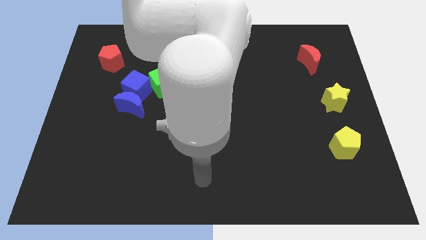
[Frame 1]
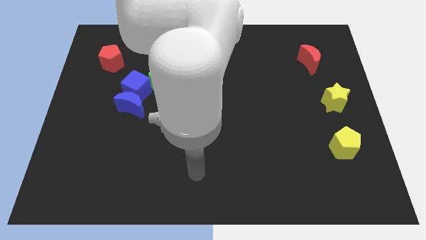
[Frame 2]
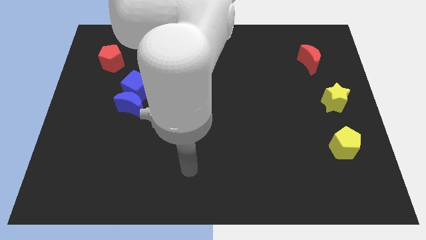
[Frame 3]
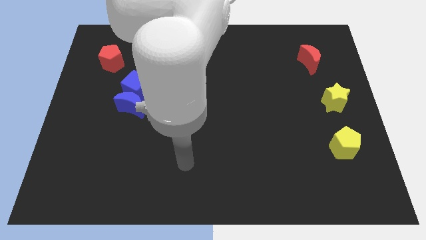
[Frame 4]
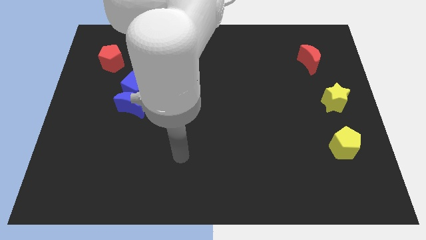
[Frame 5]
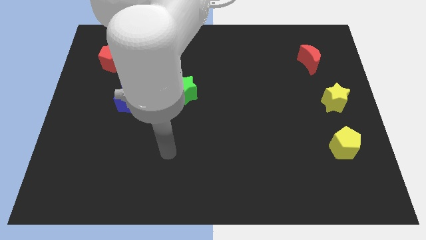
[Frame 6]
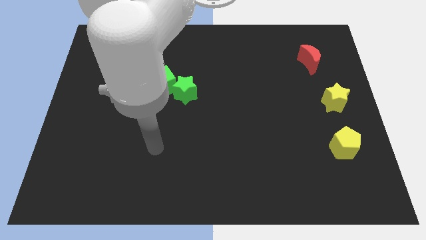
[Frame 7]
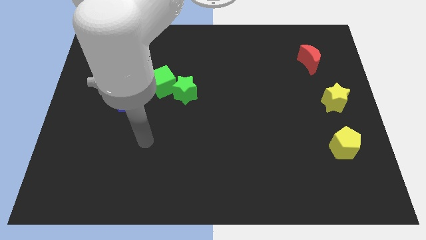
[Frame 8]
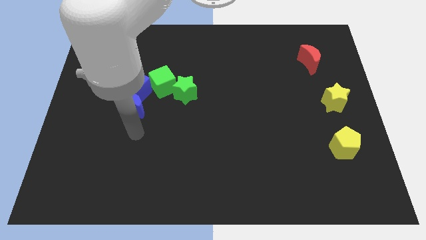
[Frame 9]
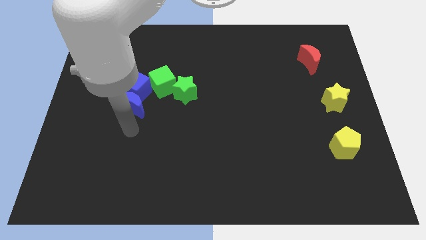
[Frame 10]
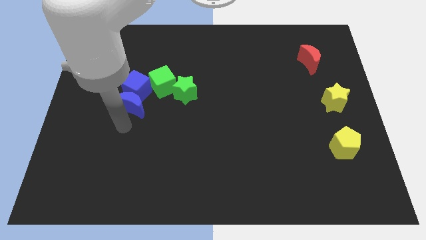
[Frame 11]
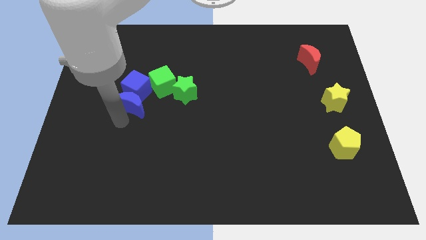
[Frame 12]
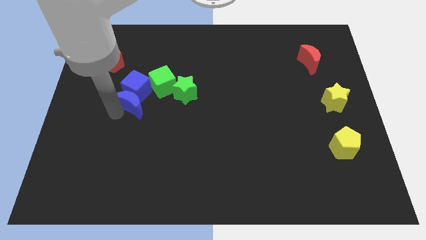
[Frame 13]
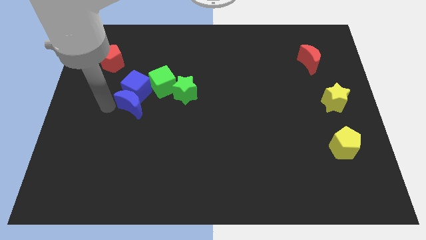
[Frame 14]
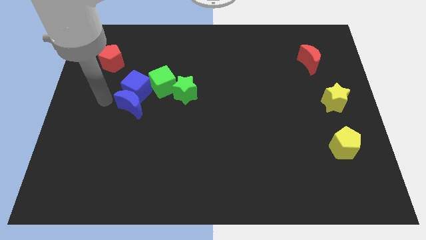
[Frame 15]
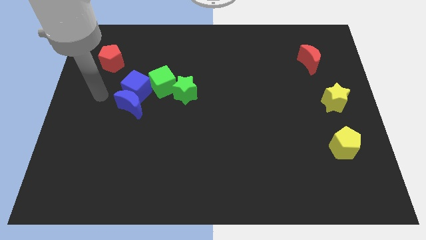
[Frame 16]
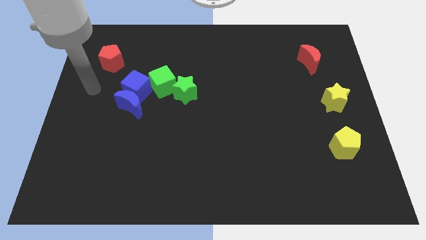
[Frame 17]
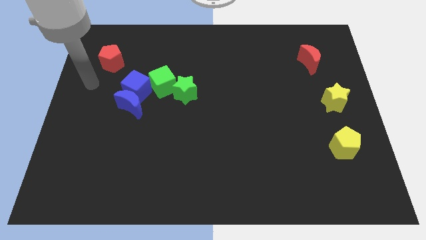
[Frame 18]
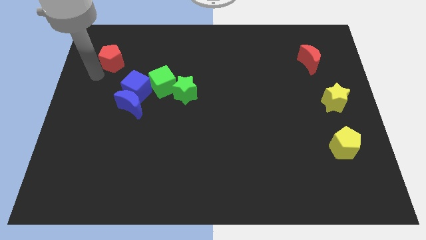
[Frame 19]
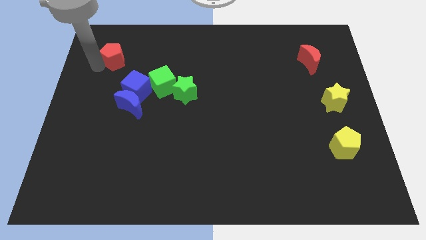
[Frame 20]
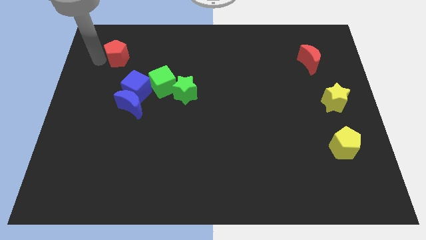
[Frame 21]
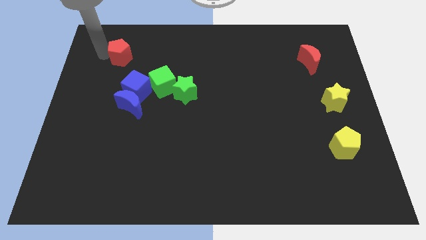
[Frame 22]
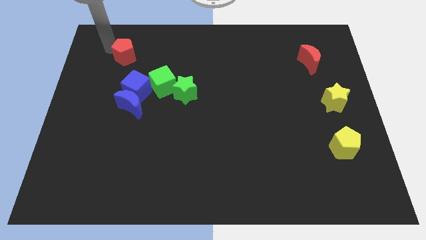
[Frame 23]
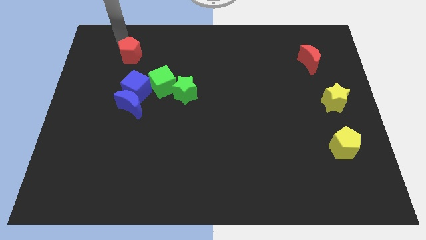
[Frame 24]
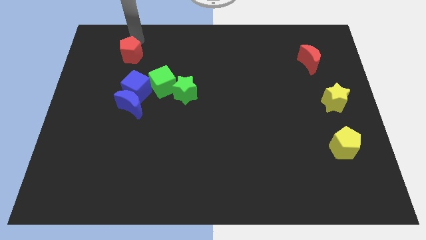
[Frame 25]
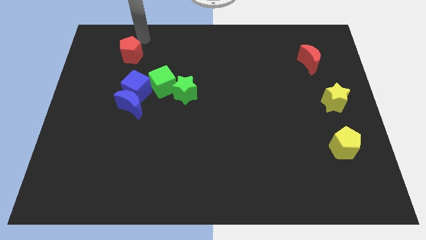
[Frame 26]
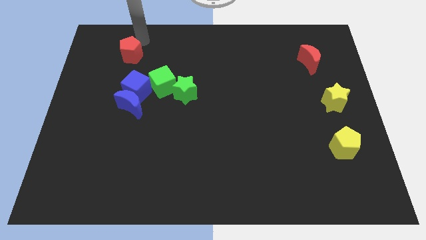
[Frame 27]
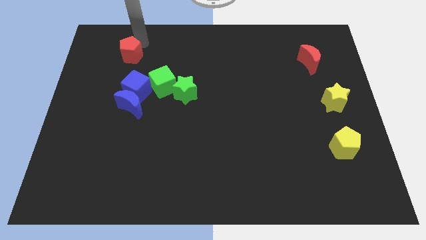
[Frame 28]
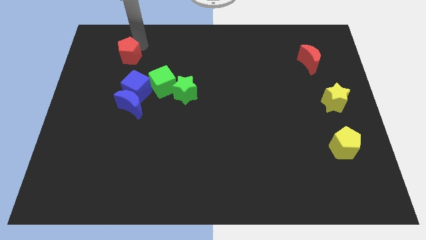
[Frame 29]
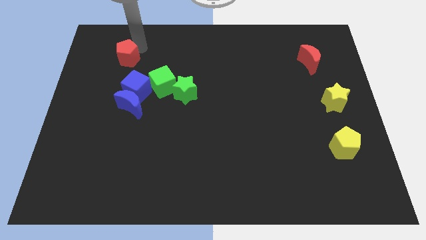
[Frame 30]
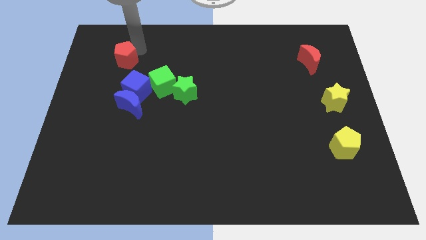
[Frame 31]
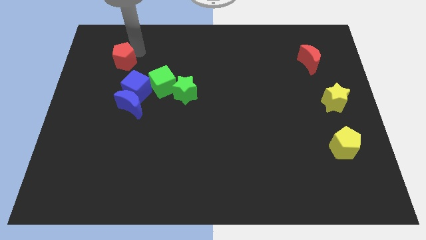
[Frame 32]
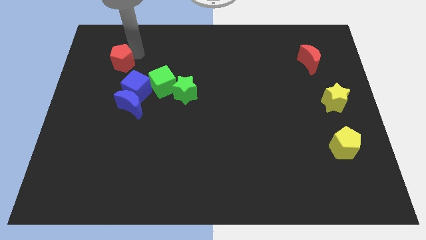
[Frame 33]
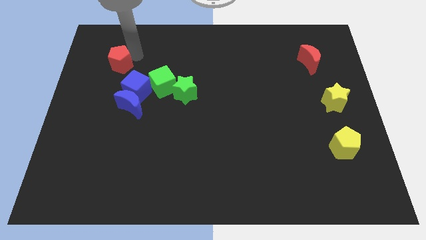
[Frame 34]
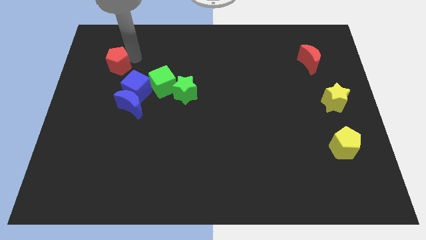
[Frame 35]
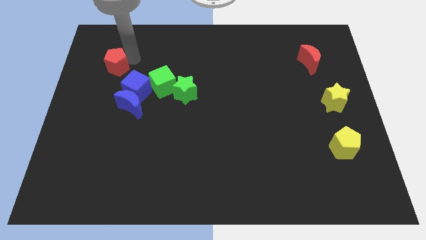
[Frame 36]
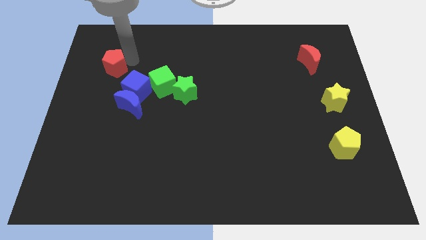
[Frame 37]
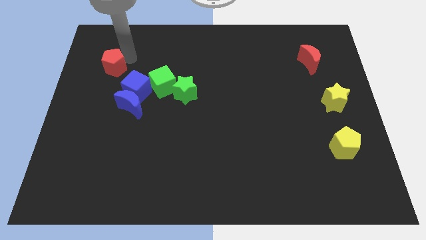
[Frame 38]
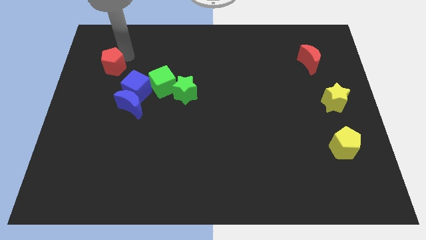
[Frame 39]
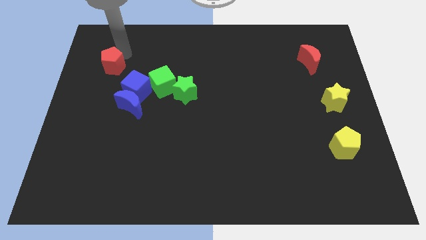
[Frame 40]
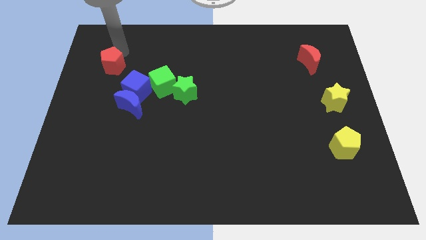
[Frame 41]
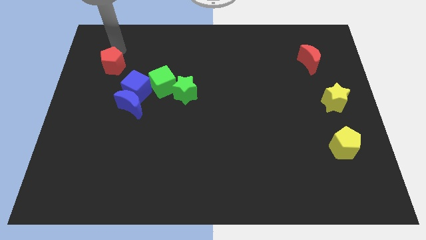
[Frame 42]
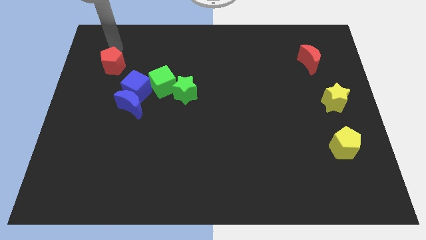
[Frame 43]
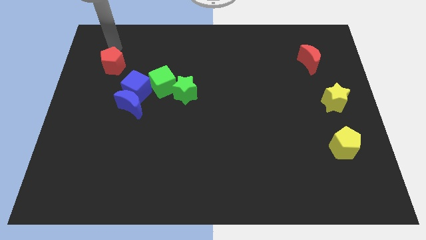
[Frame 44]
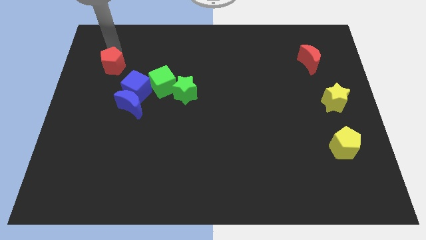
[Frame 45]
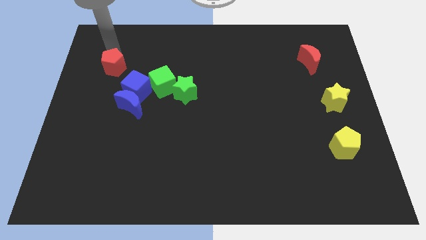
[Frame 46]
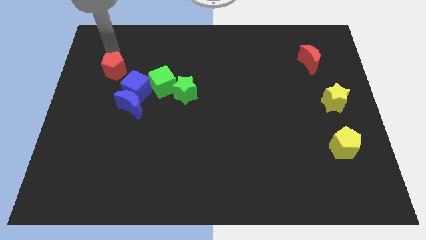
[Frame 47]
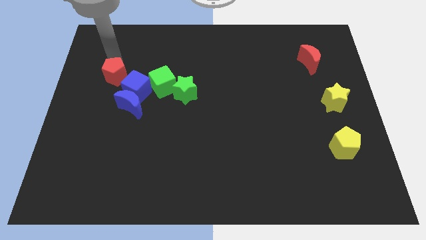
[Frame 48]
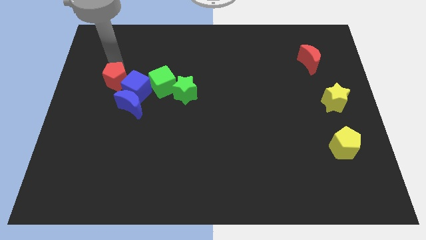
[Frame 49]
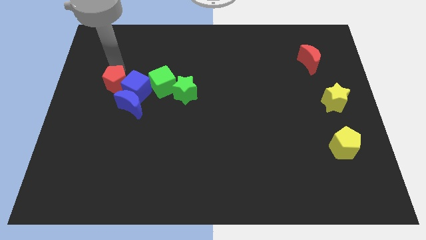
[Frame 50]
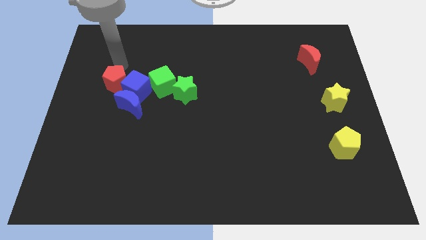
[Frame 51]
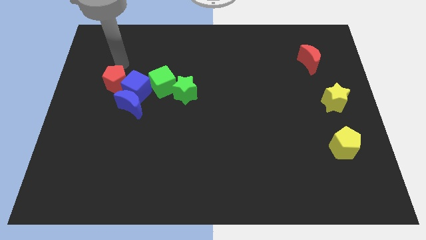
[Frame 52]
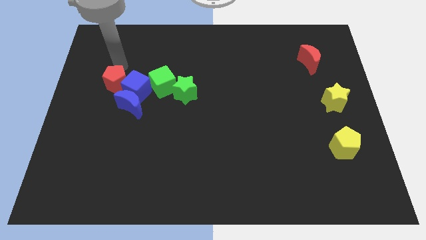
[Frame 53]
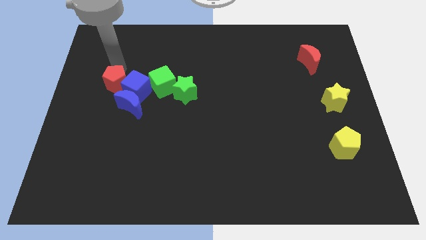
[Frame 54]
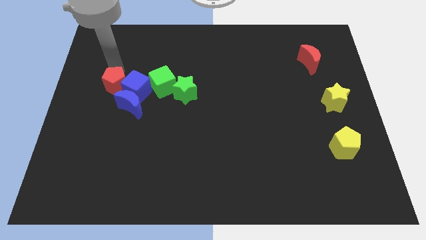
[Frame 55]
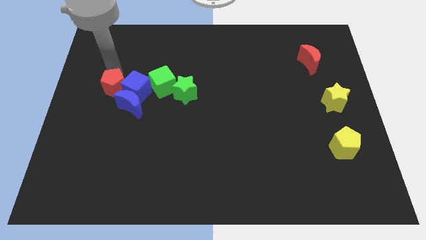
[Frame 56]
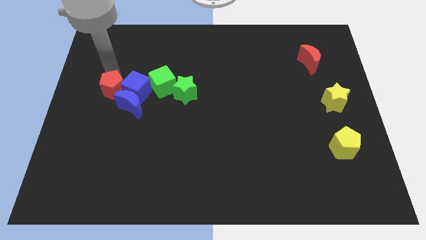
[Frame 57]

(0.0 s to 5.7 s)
move the red pentagon downwards and then to the right a bit

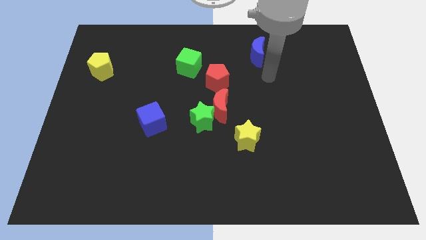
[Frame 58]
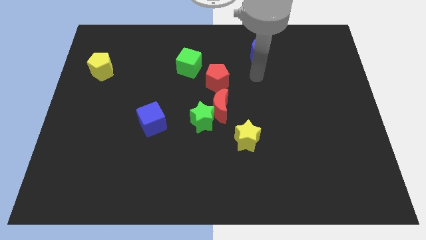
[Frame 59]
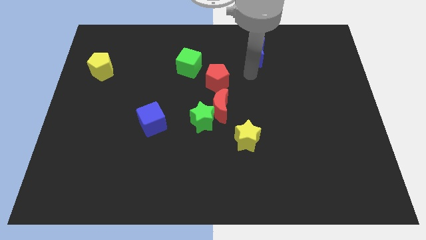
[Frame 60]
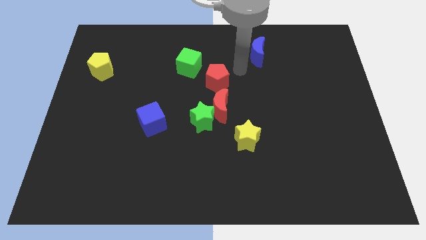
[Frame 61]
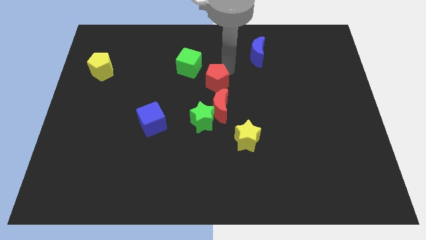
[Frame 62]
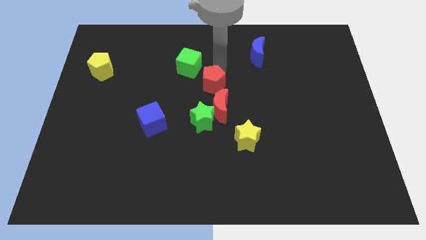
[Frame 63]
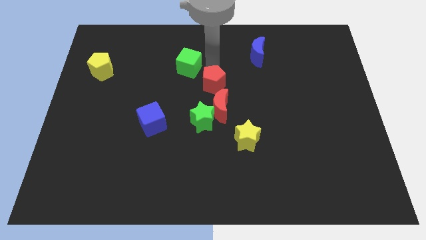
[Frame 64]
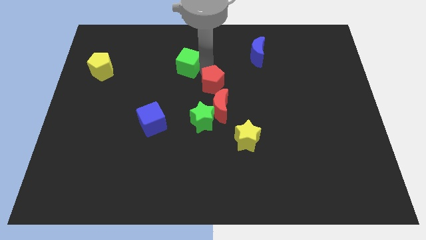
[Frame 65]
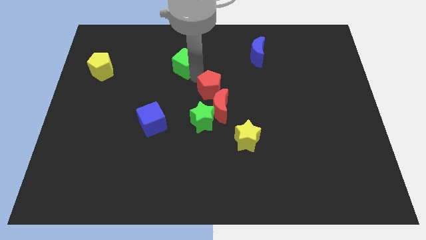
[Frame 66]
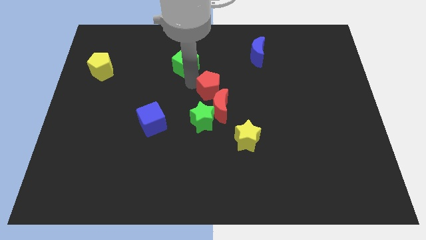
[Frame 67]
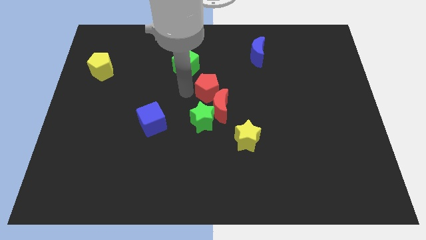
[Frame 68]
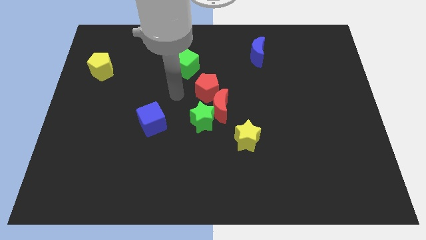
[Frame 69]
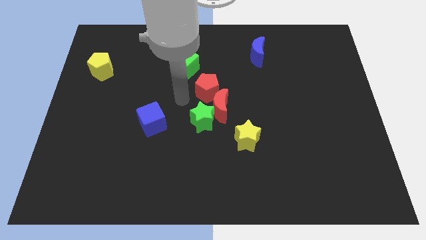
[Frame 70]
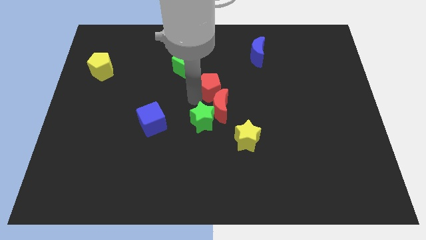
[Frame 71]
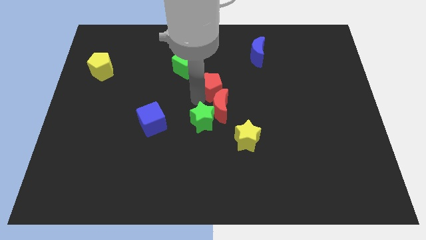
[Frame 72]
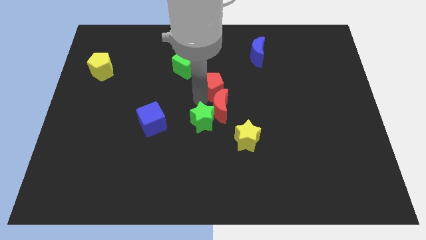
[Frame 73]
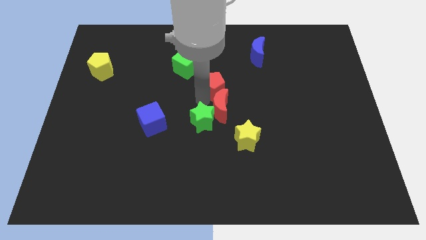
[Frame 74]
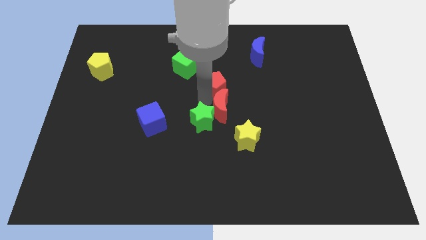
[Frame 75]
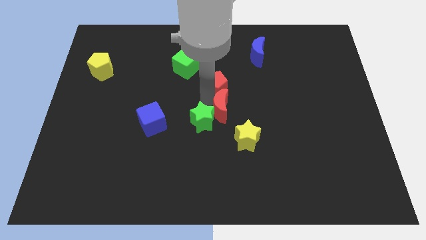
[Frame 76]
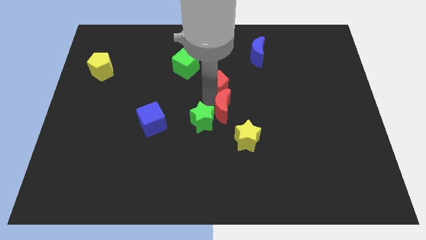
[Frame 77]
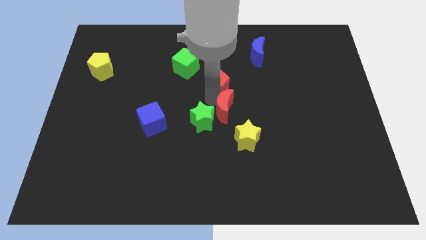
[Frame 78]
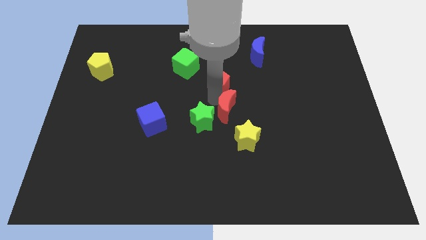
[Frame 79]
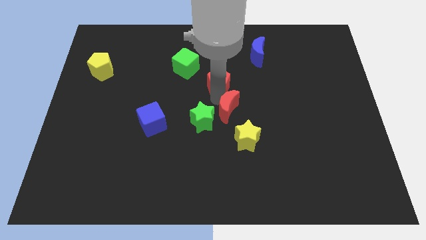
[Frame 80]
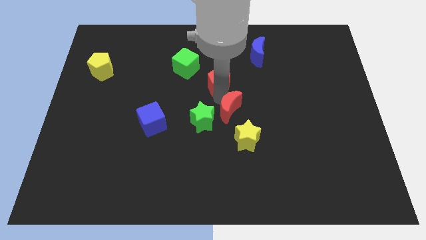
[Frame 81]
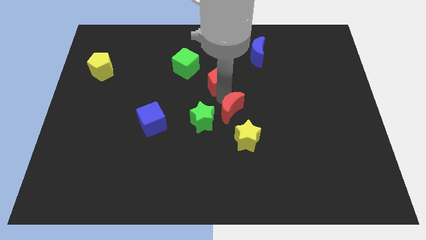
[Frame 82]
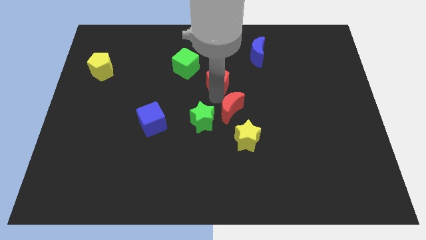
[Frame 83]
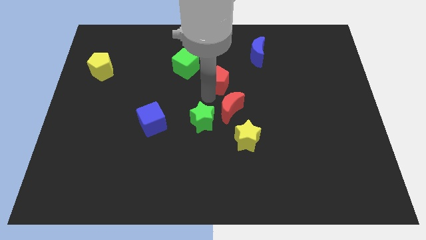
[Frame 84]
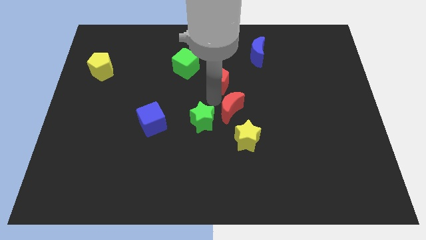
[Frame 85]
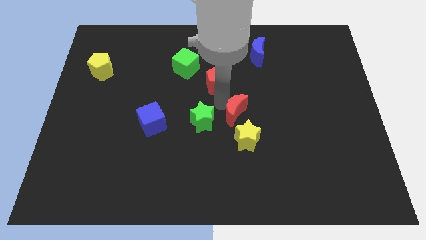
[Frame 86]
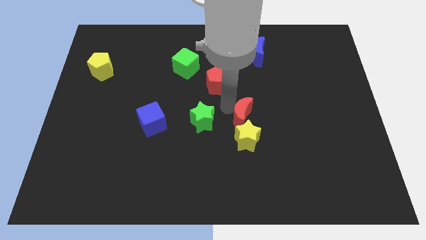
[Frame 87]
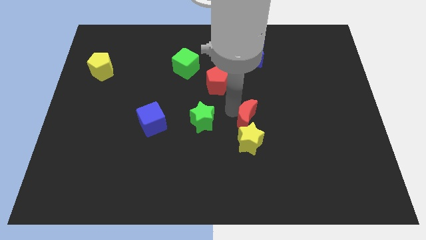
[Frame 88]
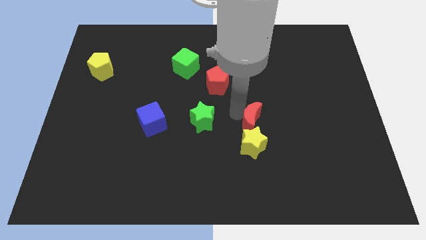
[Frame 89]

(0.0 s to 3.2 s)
move the red moon a little bit downwards and to the right
